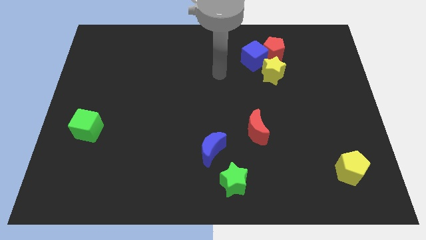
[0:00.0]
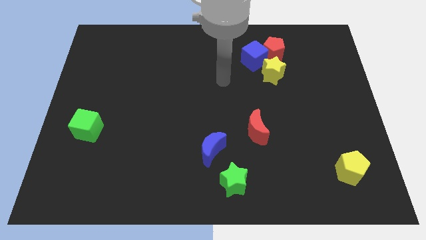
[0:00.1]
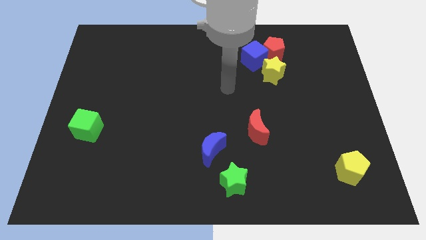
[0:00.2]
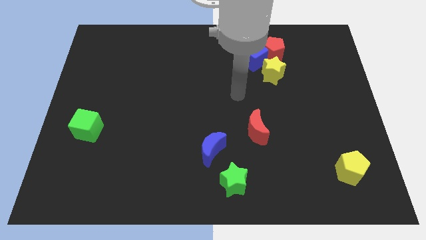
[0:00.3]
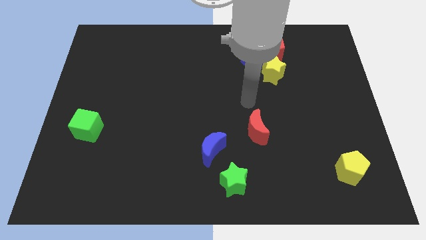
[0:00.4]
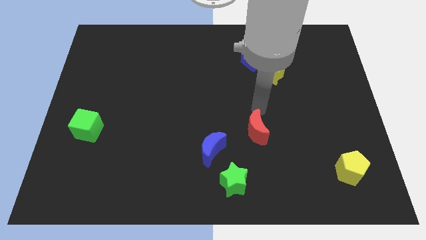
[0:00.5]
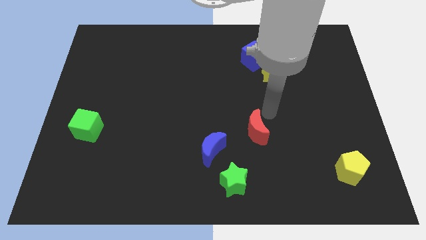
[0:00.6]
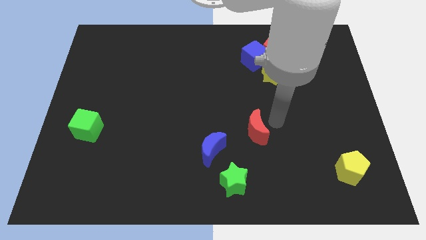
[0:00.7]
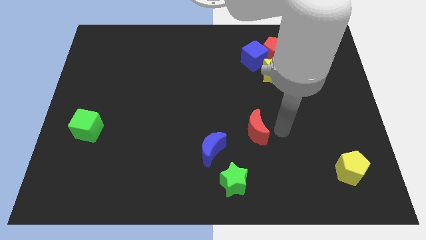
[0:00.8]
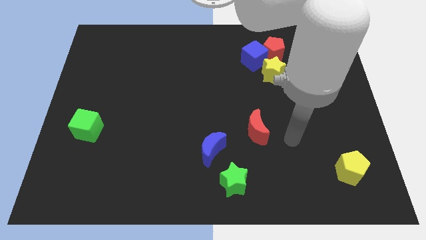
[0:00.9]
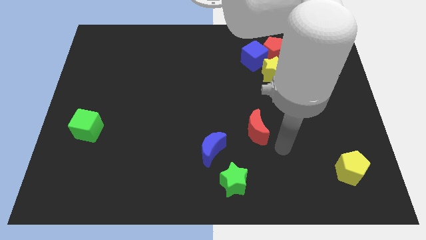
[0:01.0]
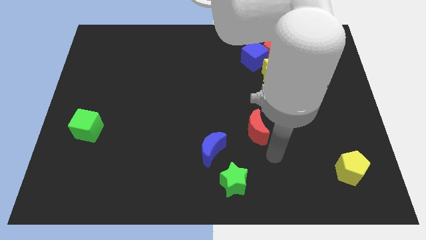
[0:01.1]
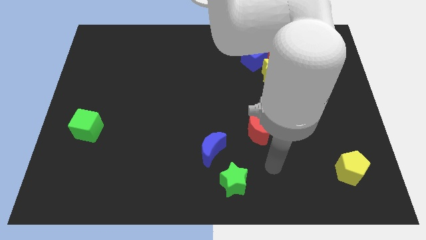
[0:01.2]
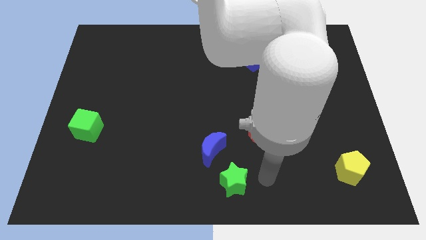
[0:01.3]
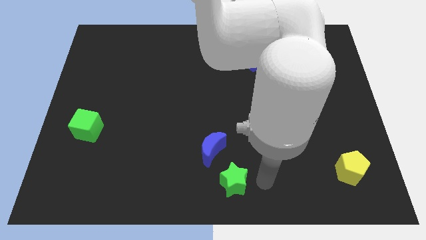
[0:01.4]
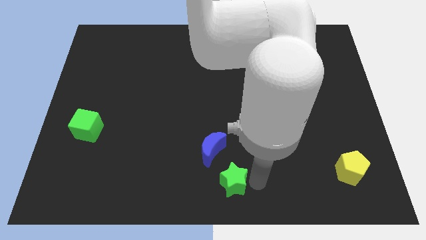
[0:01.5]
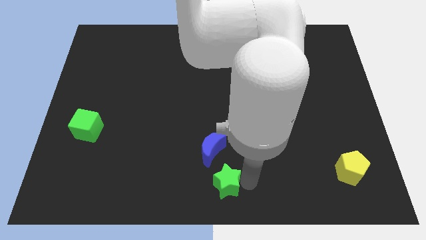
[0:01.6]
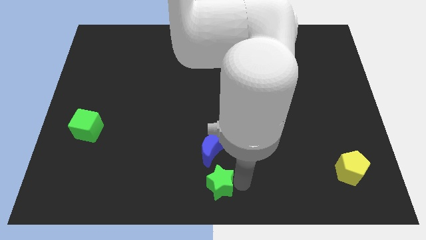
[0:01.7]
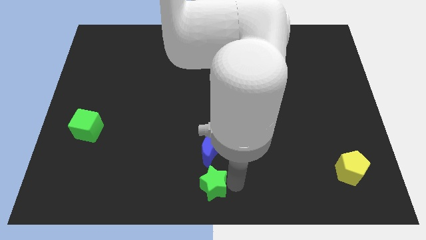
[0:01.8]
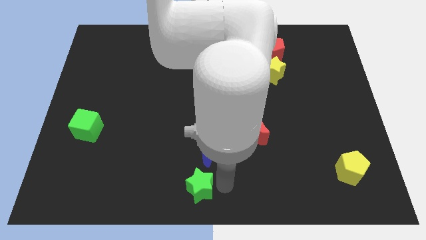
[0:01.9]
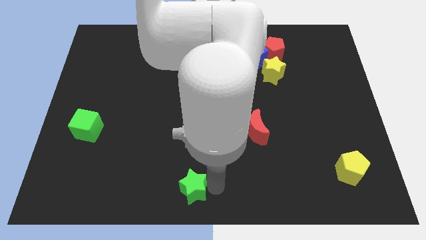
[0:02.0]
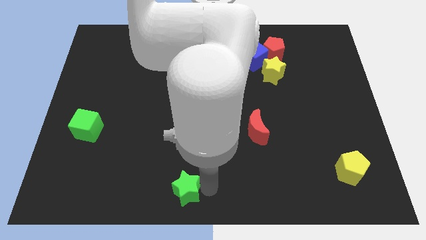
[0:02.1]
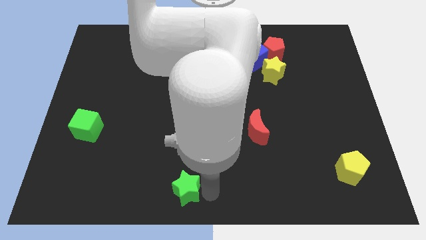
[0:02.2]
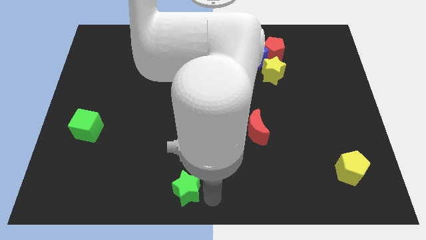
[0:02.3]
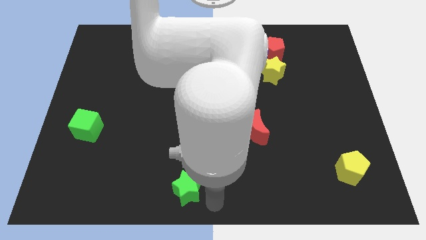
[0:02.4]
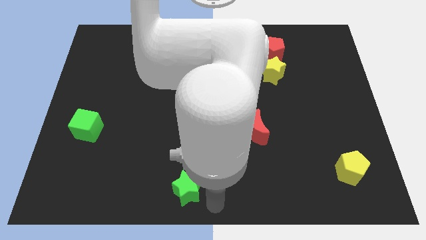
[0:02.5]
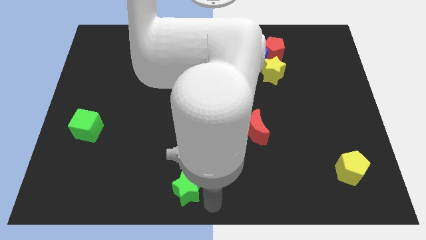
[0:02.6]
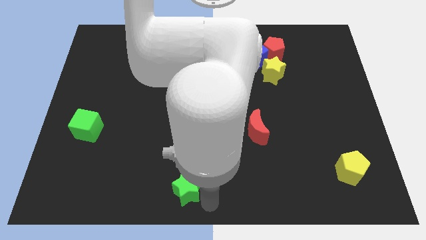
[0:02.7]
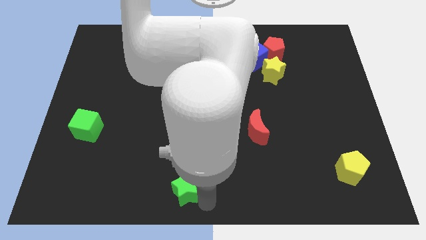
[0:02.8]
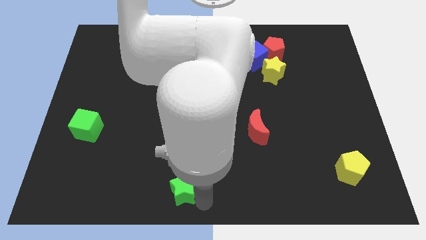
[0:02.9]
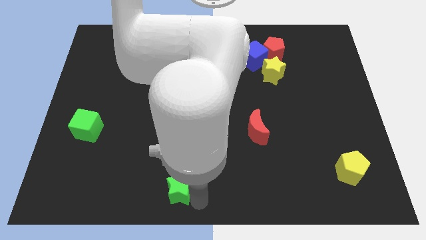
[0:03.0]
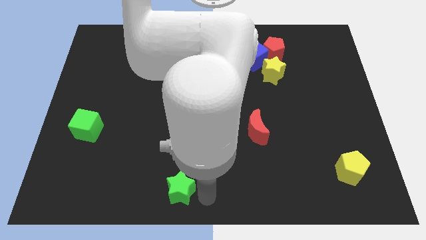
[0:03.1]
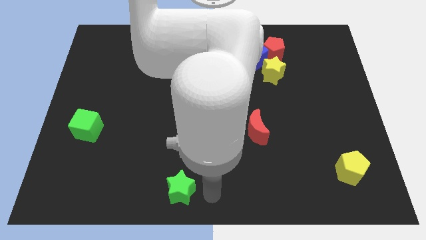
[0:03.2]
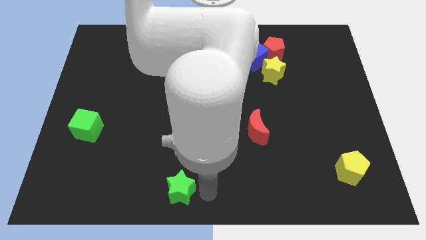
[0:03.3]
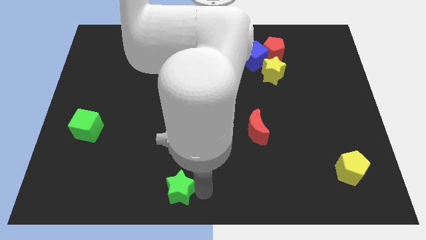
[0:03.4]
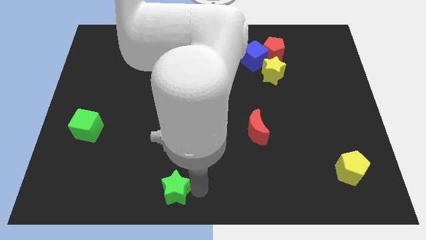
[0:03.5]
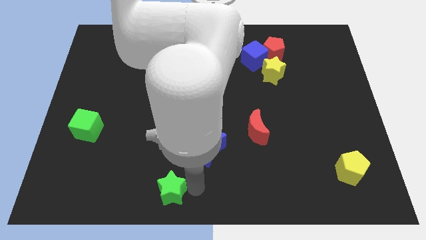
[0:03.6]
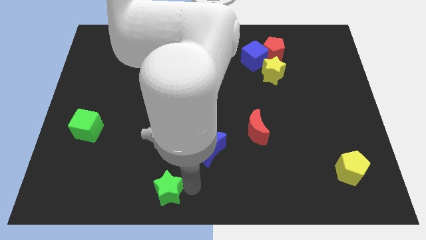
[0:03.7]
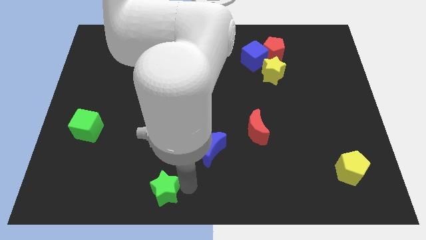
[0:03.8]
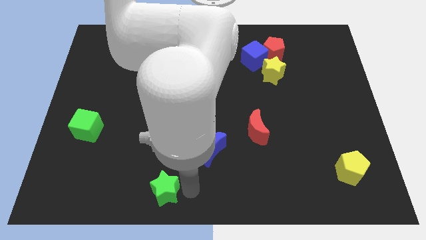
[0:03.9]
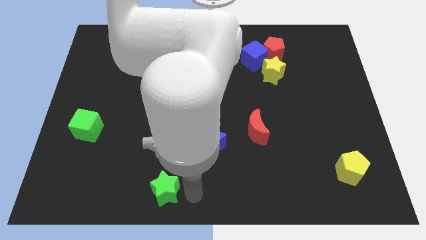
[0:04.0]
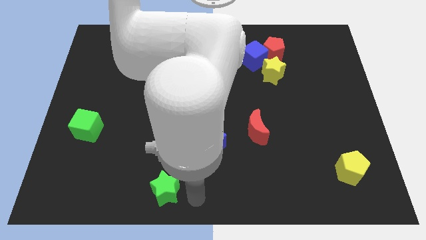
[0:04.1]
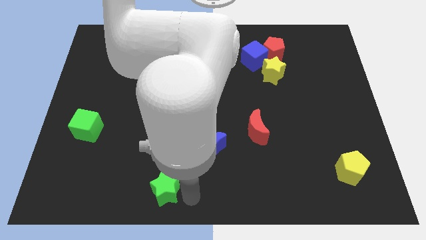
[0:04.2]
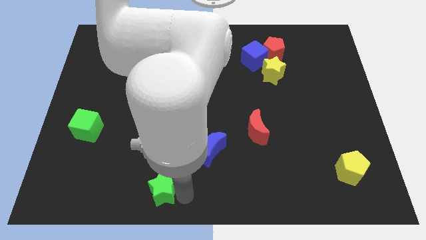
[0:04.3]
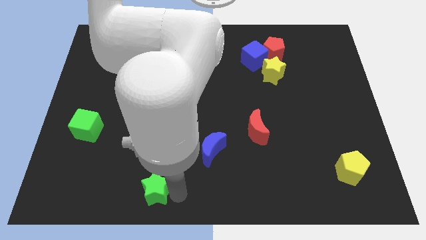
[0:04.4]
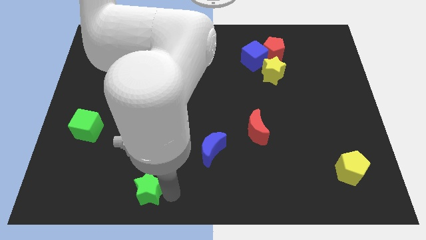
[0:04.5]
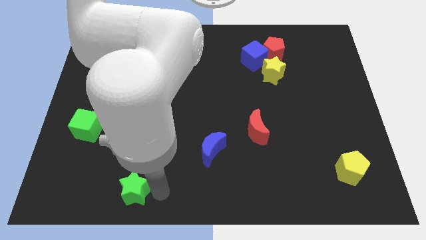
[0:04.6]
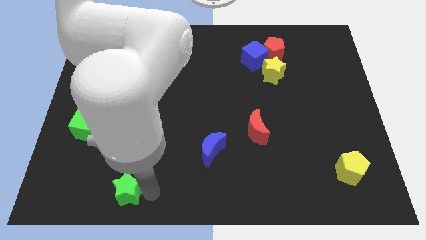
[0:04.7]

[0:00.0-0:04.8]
slide the green star to the left

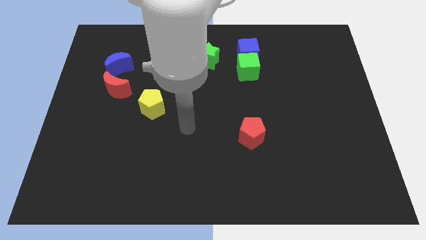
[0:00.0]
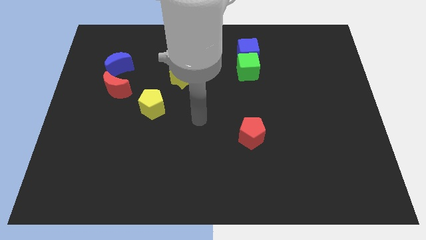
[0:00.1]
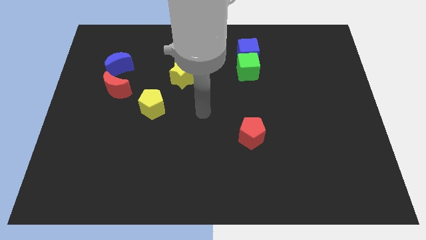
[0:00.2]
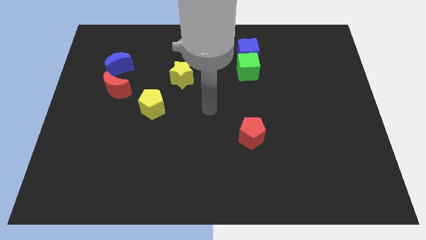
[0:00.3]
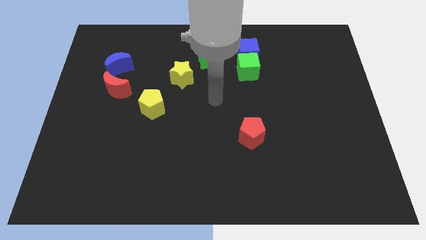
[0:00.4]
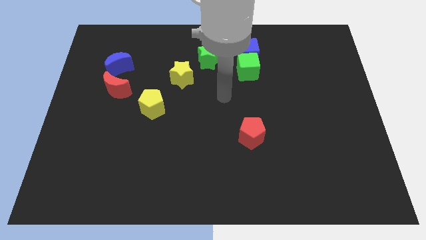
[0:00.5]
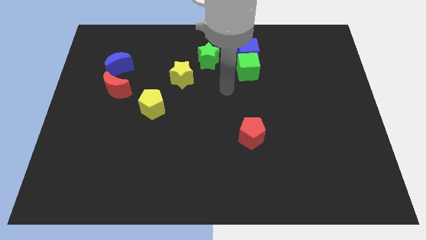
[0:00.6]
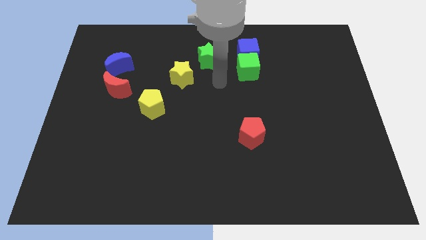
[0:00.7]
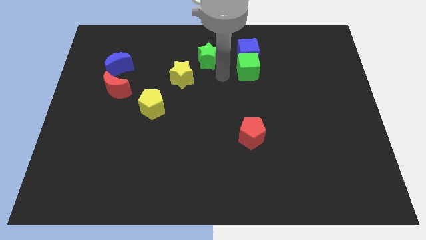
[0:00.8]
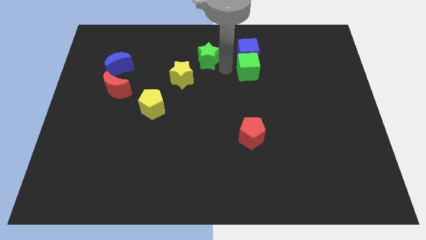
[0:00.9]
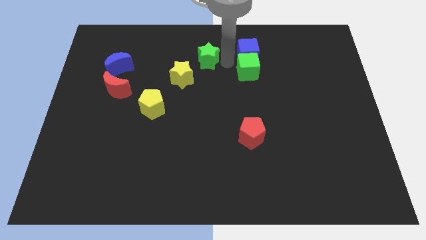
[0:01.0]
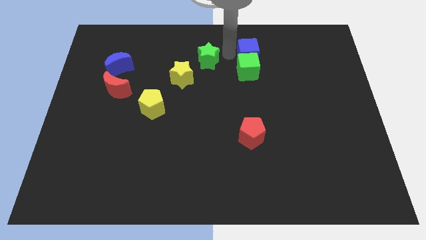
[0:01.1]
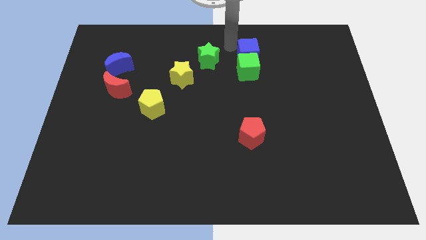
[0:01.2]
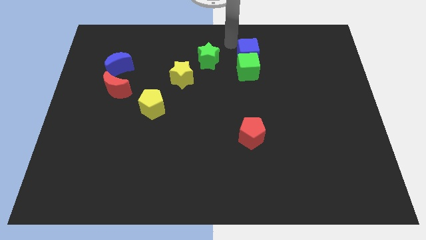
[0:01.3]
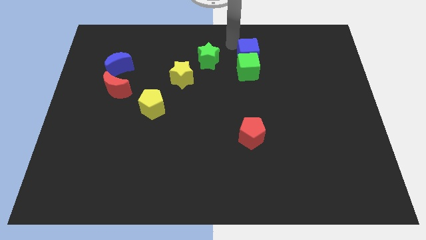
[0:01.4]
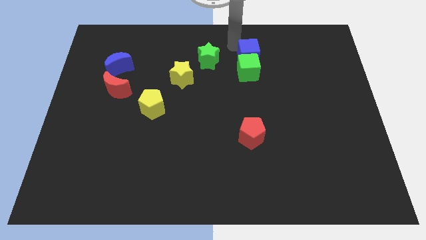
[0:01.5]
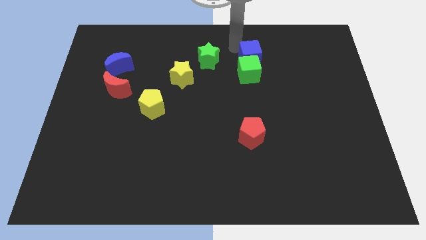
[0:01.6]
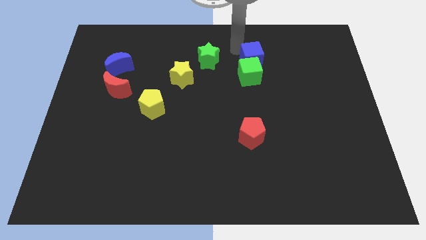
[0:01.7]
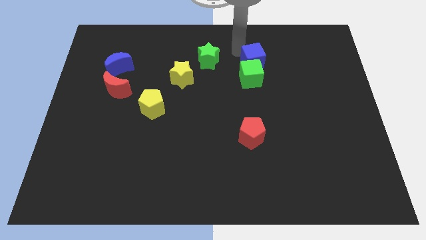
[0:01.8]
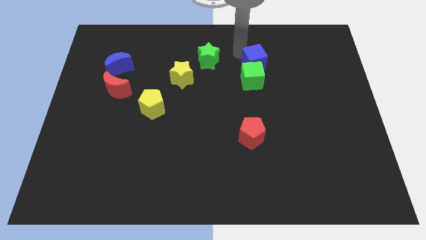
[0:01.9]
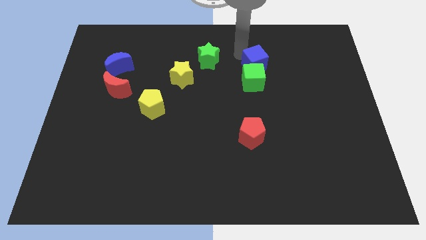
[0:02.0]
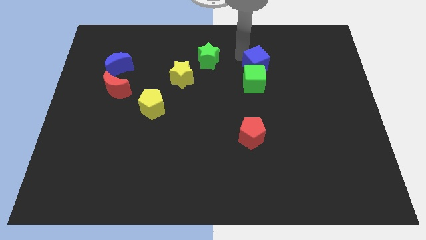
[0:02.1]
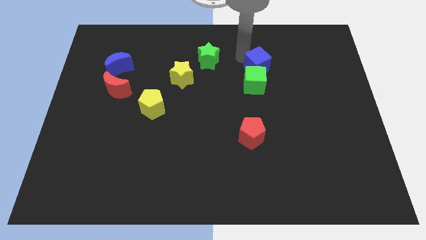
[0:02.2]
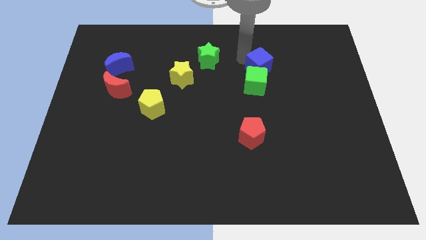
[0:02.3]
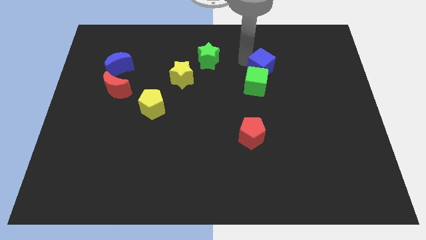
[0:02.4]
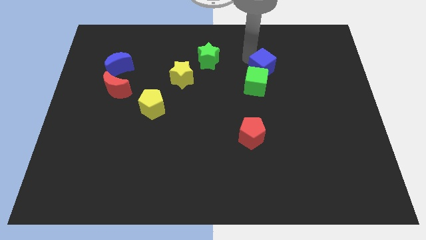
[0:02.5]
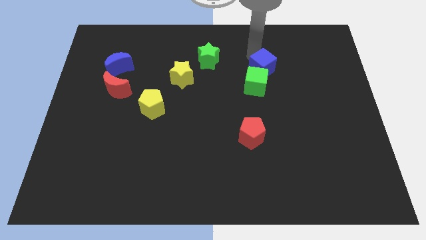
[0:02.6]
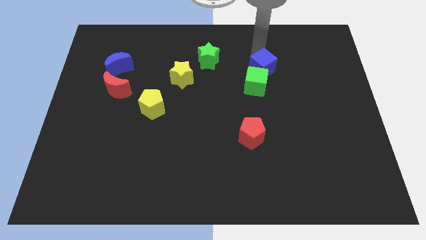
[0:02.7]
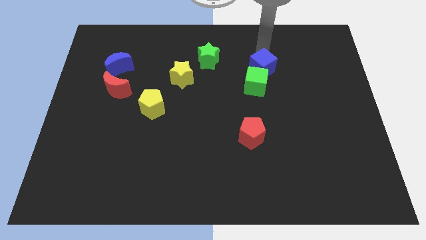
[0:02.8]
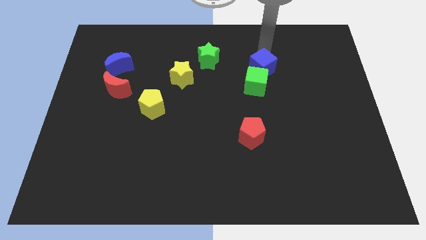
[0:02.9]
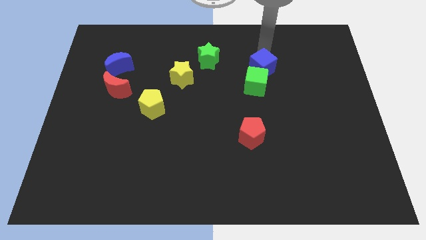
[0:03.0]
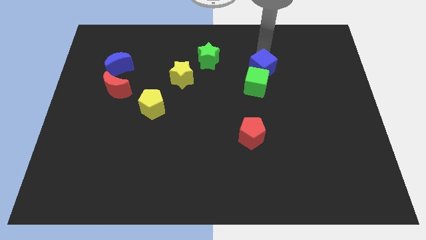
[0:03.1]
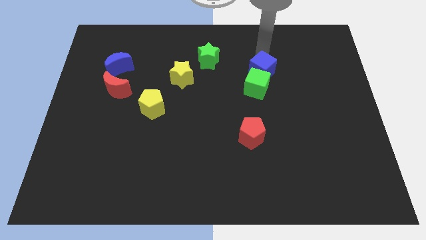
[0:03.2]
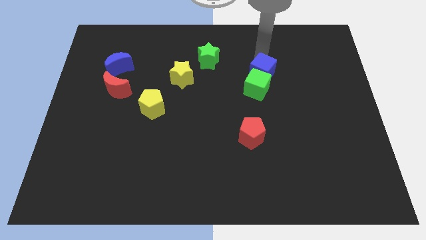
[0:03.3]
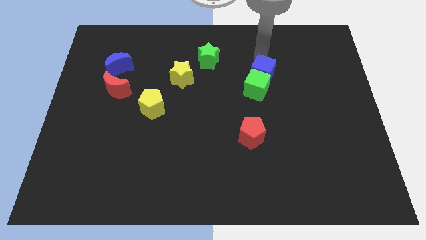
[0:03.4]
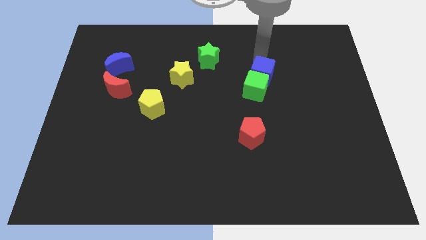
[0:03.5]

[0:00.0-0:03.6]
slide the blue cube a little bit down
